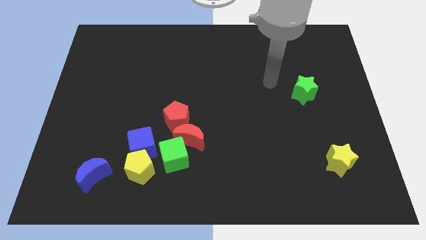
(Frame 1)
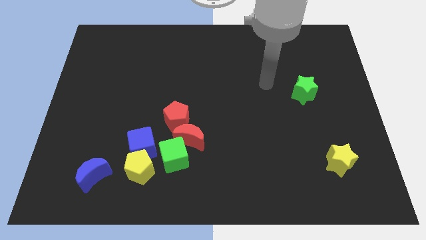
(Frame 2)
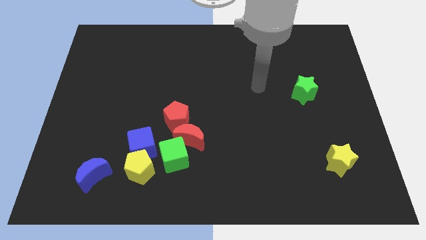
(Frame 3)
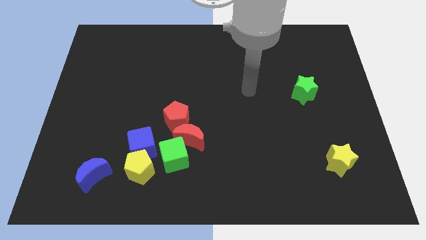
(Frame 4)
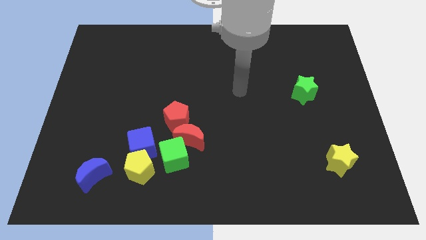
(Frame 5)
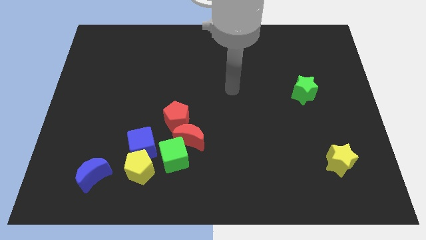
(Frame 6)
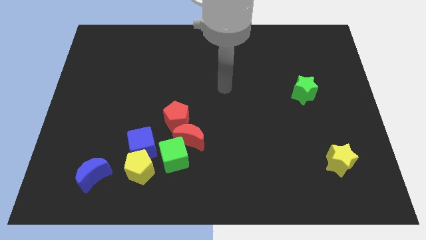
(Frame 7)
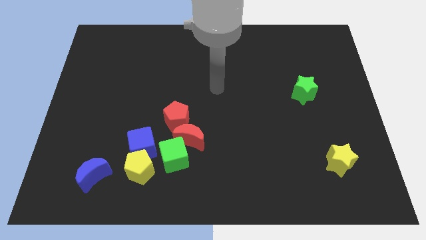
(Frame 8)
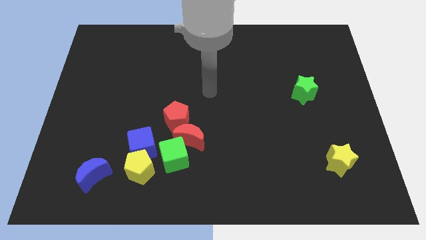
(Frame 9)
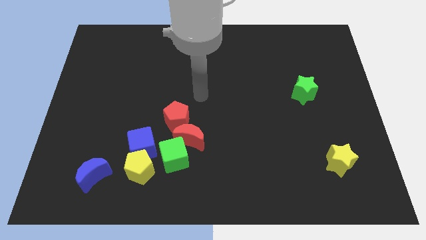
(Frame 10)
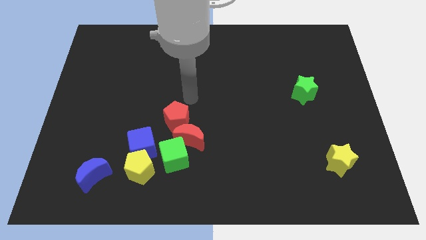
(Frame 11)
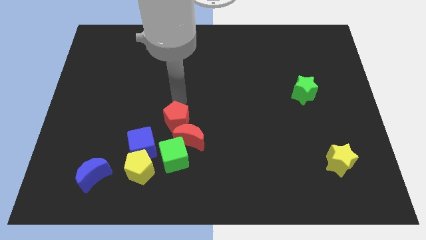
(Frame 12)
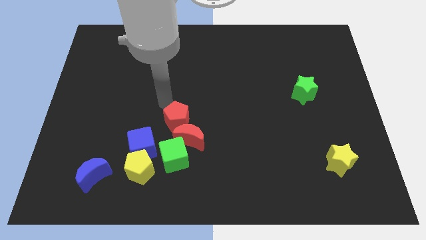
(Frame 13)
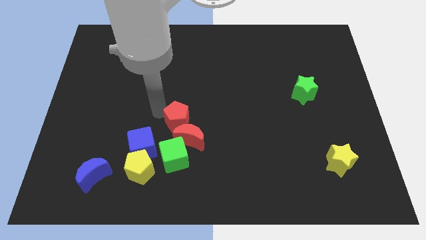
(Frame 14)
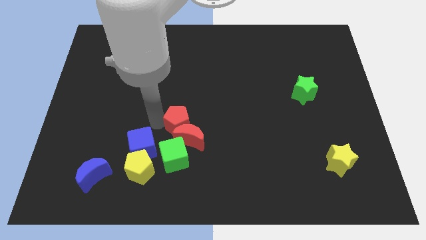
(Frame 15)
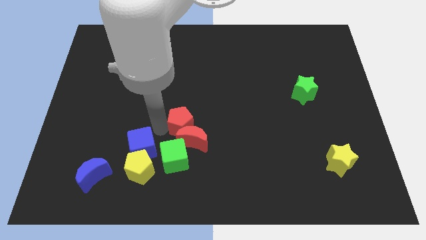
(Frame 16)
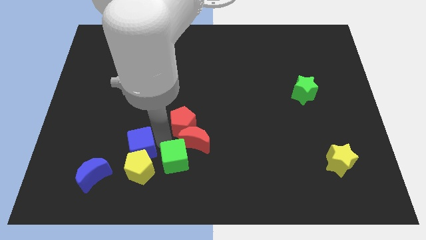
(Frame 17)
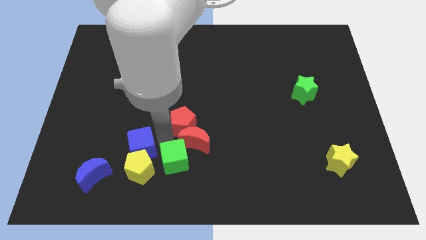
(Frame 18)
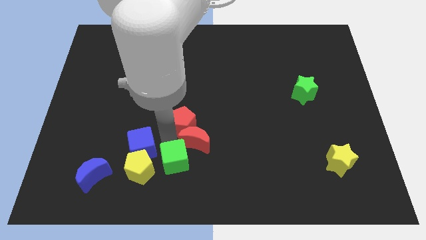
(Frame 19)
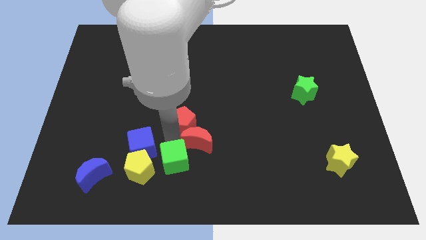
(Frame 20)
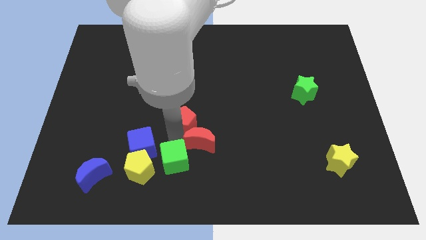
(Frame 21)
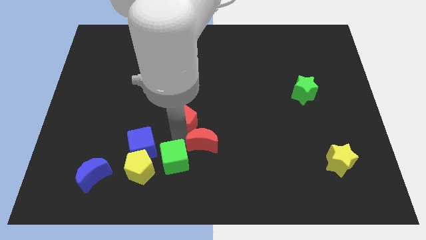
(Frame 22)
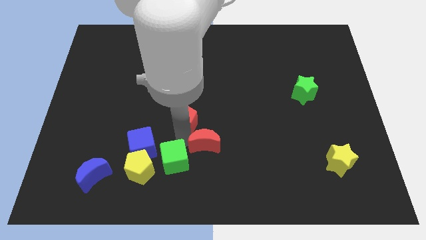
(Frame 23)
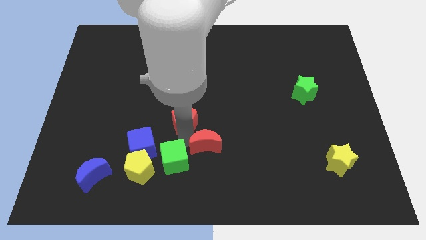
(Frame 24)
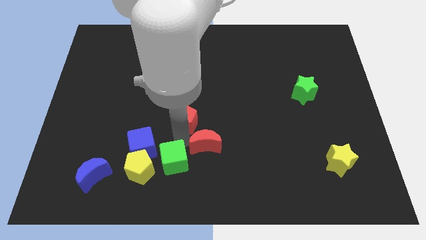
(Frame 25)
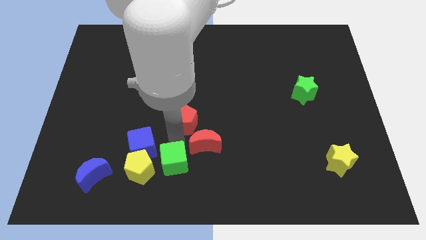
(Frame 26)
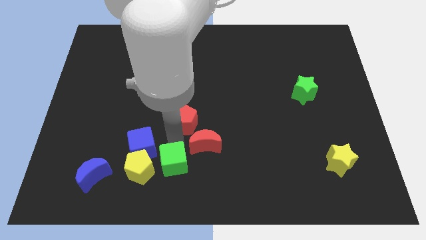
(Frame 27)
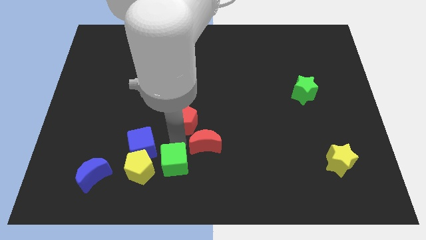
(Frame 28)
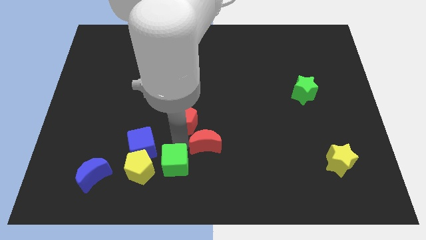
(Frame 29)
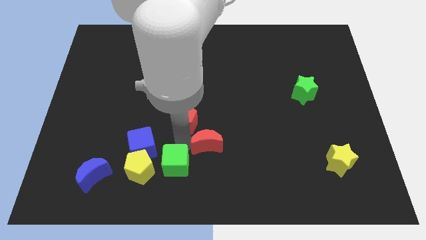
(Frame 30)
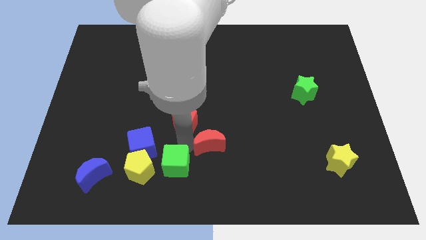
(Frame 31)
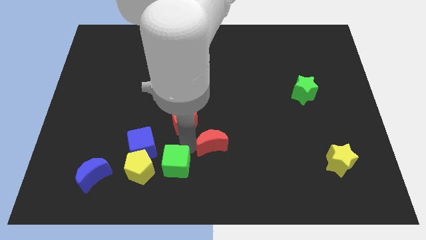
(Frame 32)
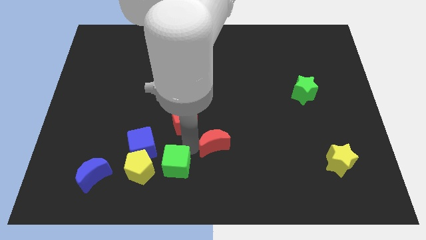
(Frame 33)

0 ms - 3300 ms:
pull the red moon apart from the group of blocks

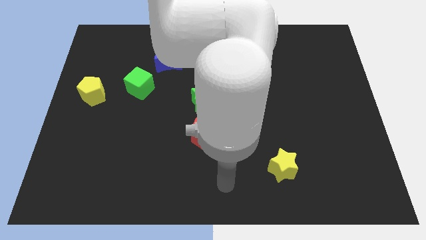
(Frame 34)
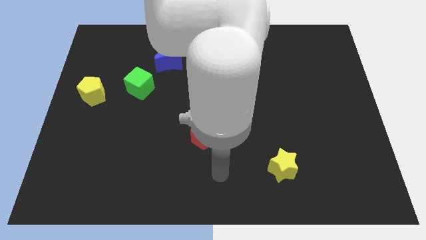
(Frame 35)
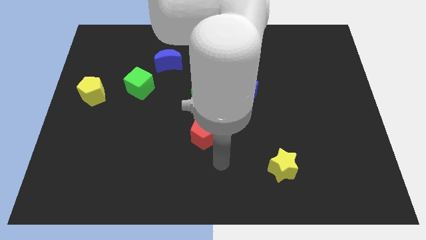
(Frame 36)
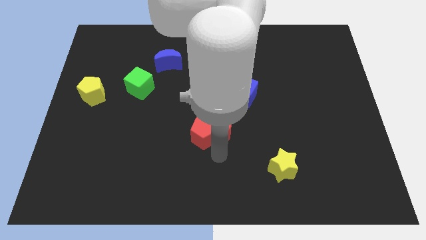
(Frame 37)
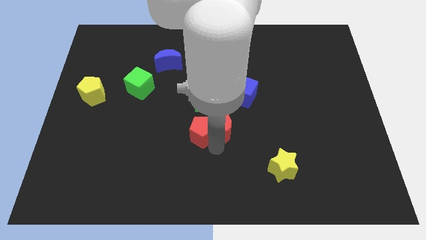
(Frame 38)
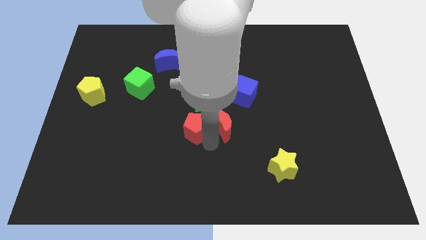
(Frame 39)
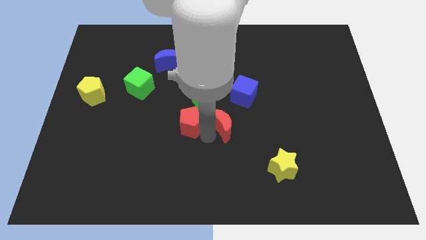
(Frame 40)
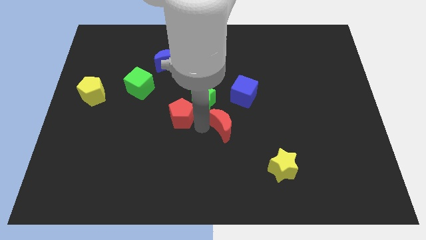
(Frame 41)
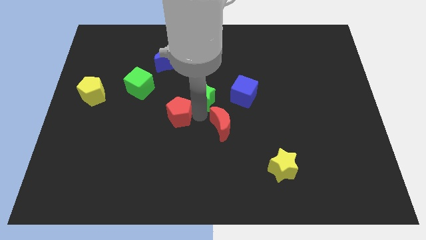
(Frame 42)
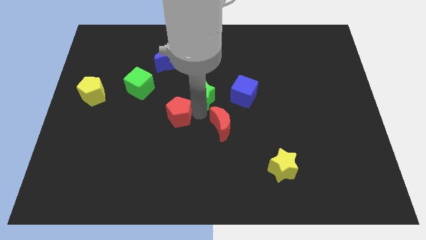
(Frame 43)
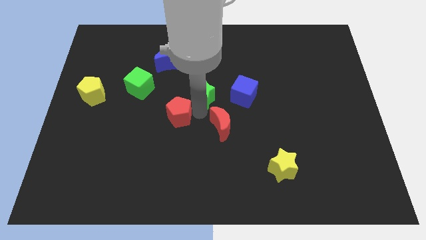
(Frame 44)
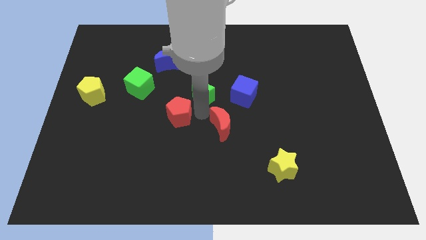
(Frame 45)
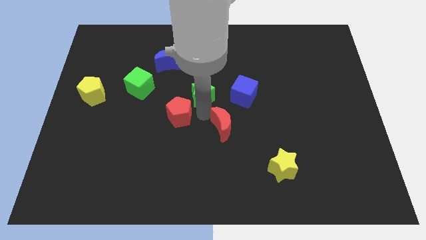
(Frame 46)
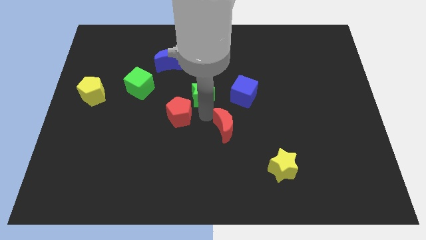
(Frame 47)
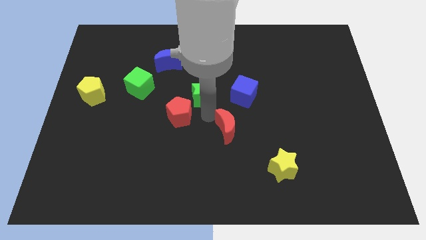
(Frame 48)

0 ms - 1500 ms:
separate the red moon from the red pentagon and green star

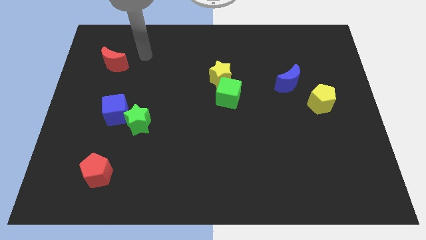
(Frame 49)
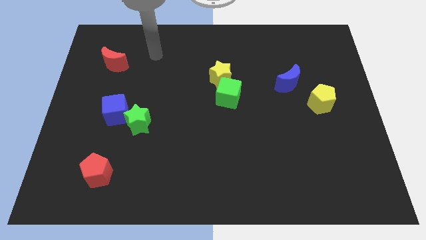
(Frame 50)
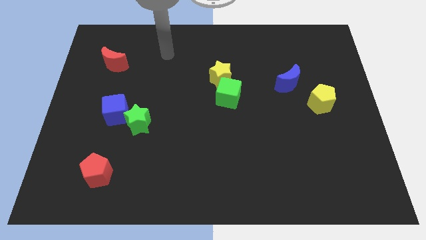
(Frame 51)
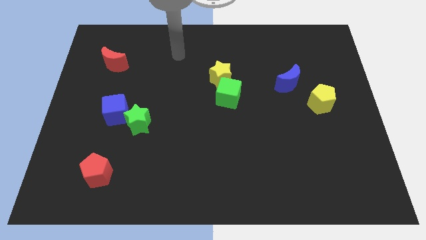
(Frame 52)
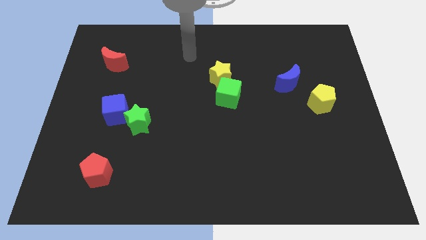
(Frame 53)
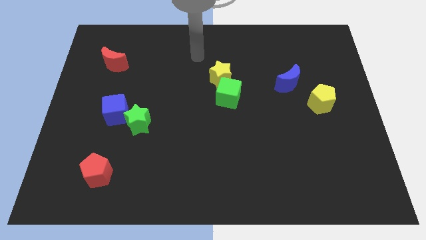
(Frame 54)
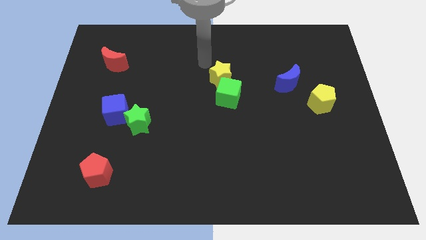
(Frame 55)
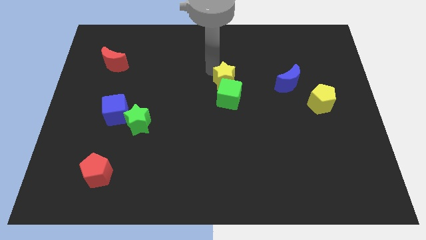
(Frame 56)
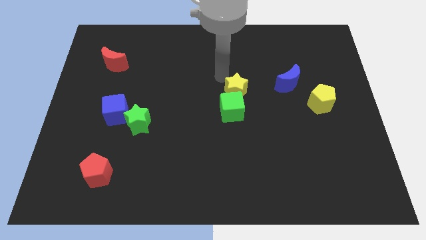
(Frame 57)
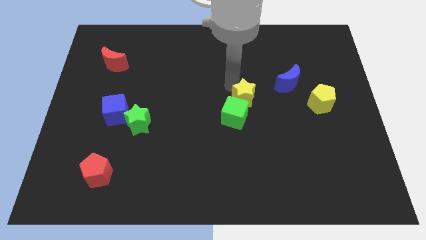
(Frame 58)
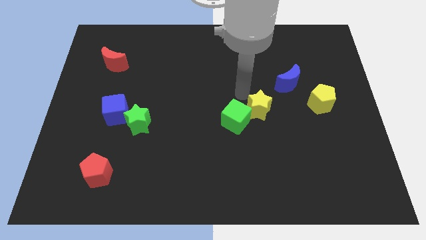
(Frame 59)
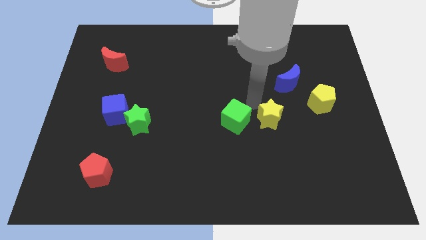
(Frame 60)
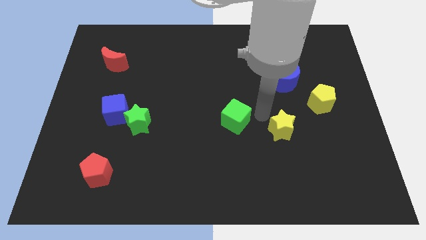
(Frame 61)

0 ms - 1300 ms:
move the green cube away from the yellow star

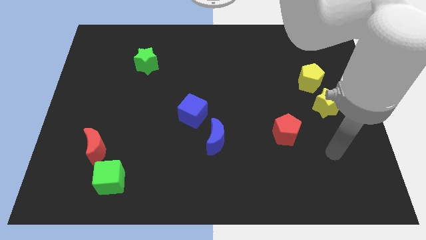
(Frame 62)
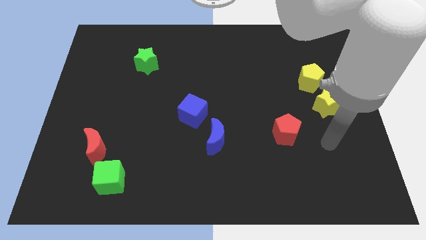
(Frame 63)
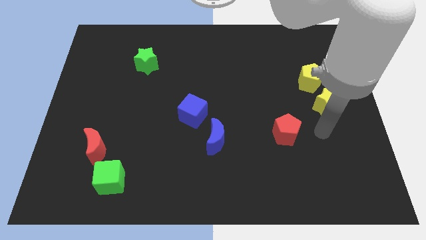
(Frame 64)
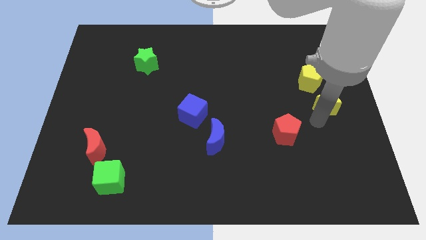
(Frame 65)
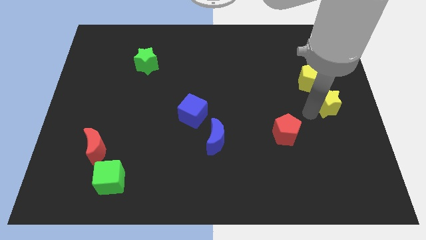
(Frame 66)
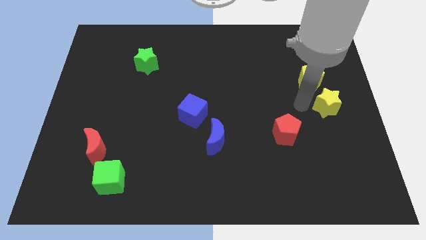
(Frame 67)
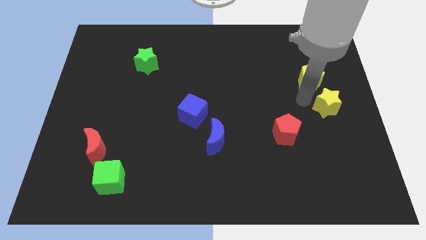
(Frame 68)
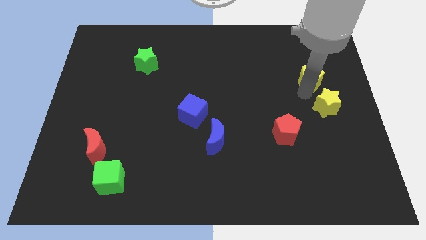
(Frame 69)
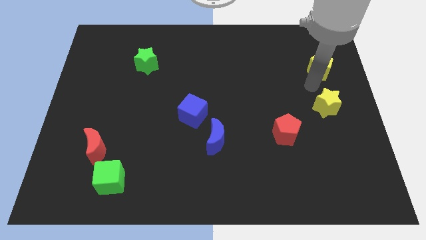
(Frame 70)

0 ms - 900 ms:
separate the yellow star from the yellow pentagon

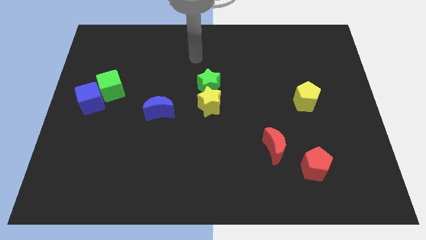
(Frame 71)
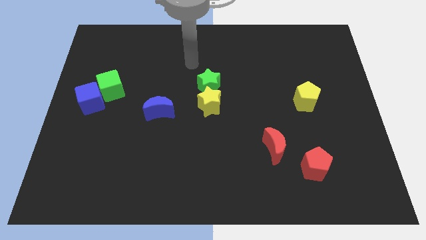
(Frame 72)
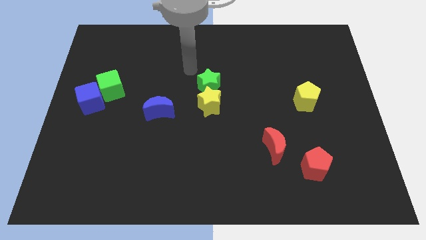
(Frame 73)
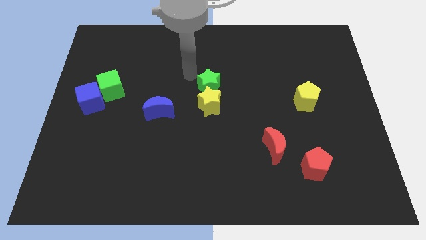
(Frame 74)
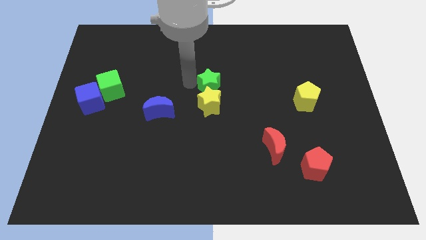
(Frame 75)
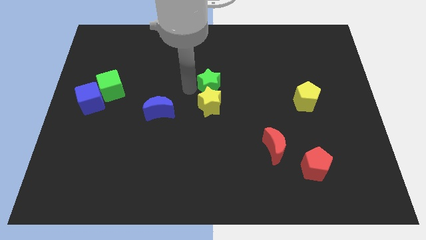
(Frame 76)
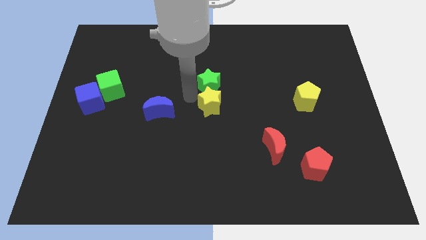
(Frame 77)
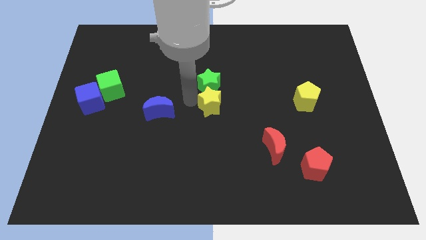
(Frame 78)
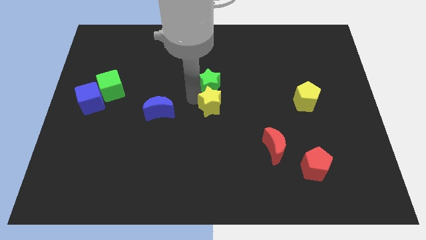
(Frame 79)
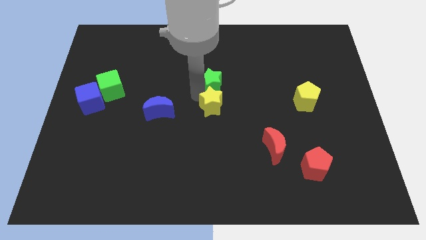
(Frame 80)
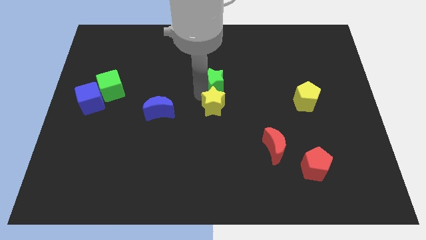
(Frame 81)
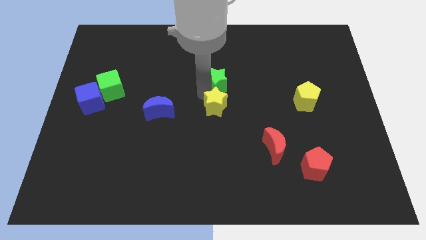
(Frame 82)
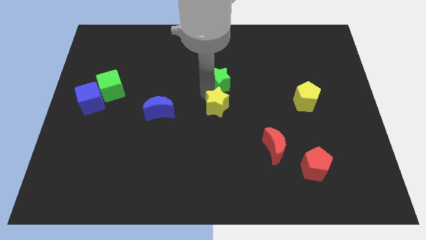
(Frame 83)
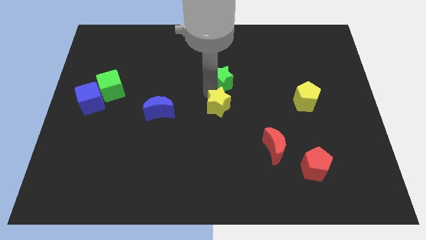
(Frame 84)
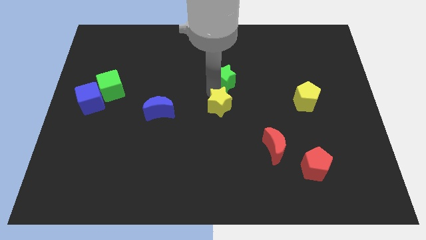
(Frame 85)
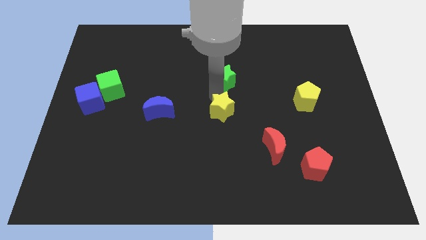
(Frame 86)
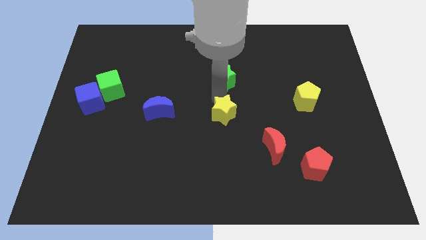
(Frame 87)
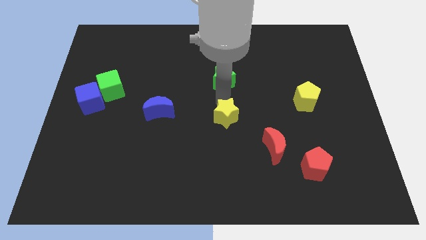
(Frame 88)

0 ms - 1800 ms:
separate the green star from the yellow star

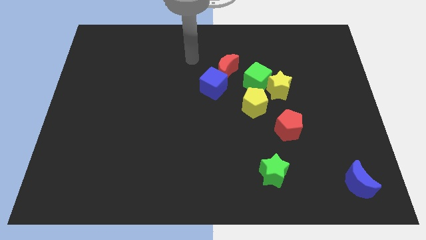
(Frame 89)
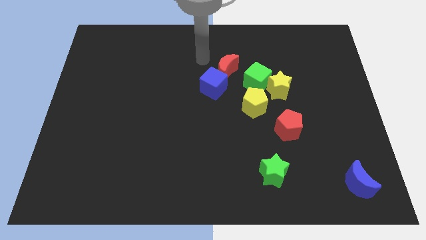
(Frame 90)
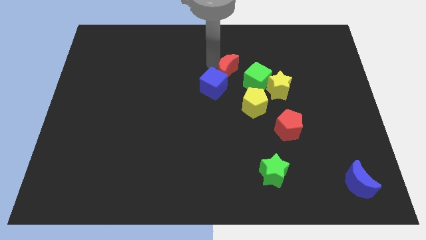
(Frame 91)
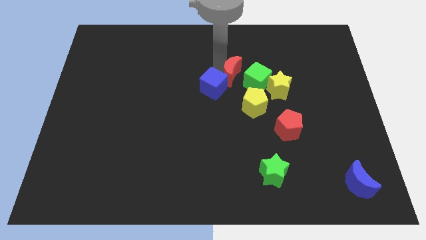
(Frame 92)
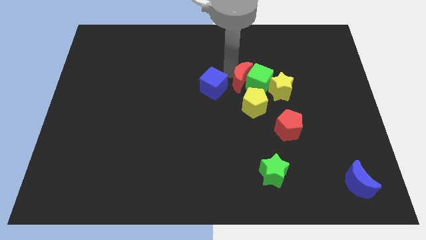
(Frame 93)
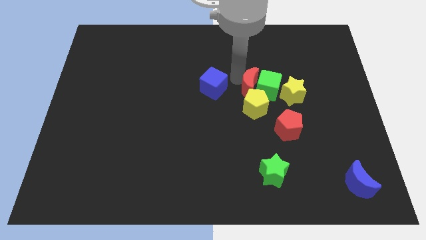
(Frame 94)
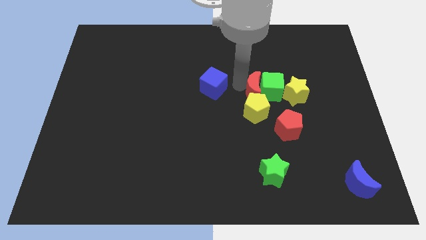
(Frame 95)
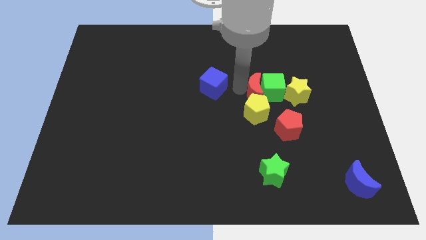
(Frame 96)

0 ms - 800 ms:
move the blue cube away from the red moon
